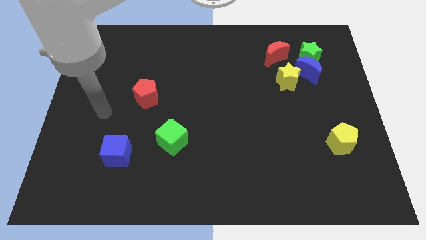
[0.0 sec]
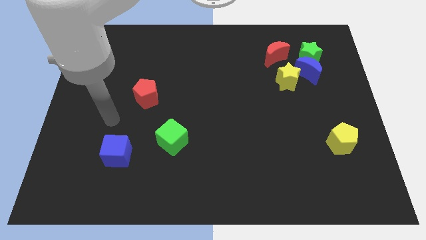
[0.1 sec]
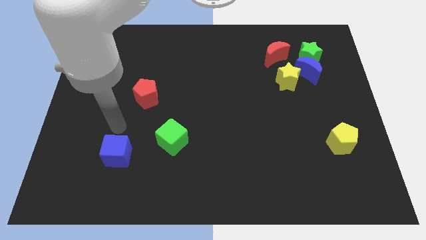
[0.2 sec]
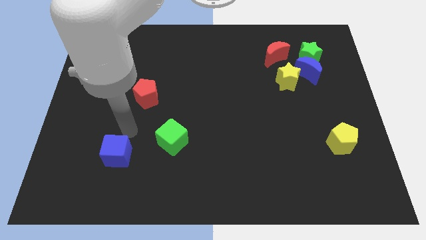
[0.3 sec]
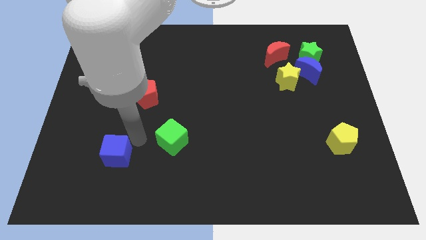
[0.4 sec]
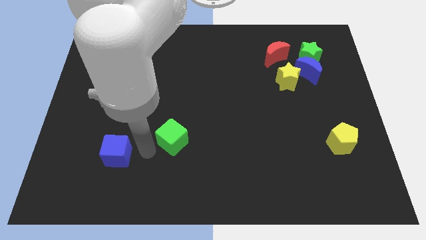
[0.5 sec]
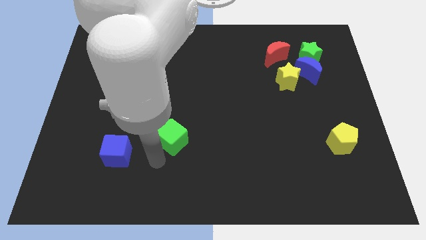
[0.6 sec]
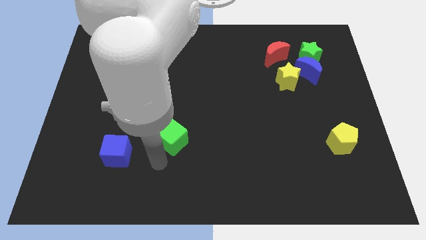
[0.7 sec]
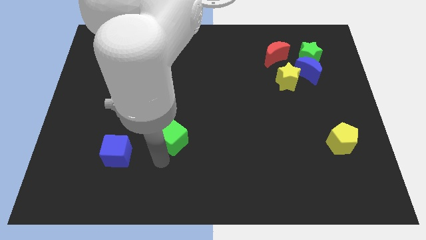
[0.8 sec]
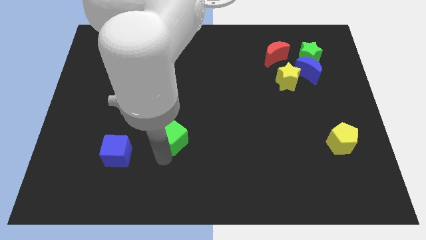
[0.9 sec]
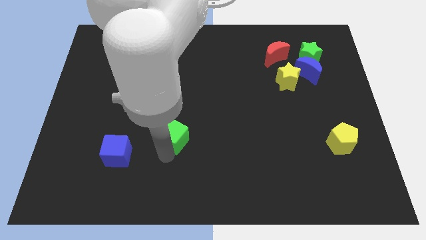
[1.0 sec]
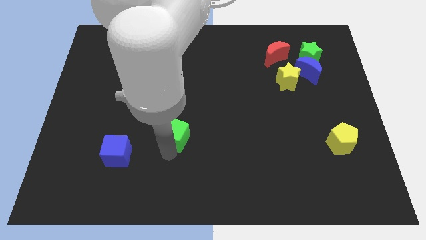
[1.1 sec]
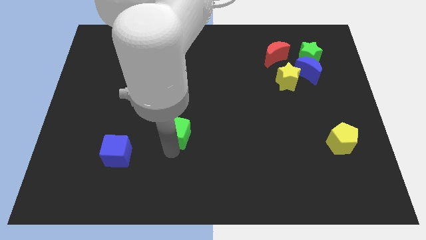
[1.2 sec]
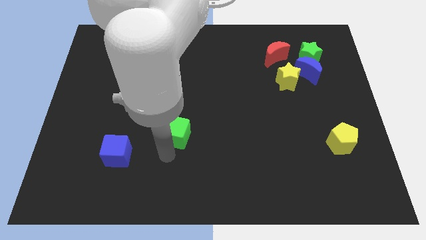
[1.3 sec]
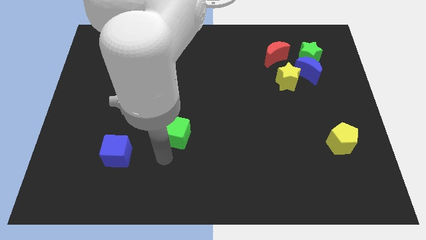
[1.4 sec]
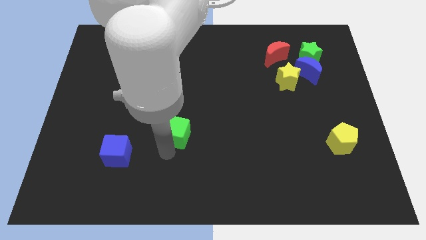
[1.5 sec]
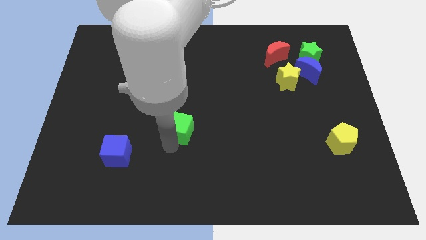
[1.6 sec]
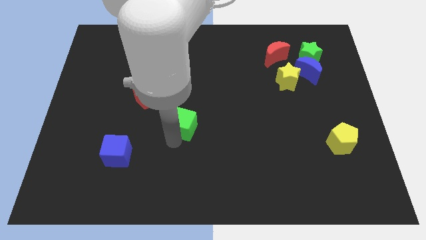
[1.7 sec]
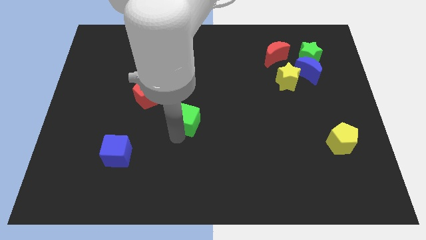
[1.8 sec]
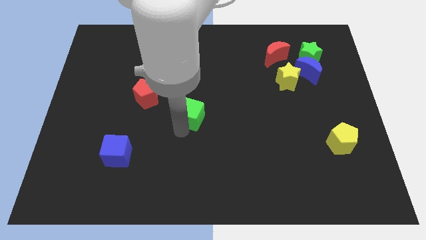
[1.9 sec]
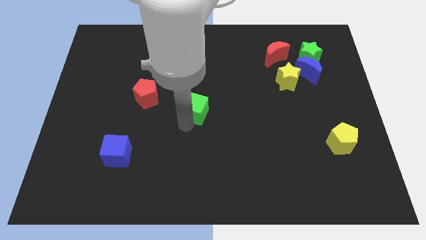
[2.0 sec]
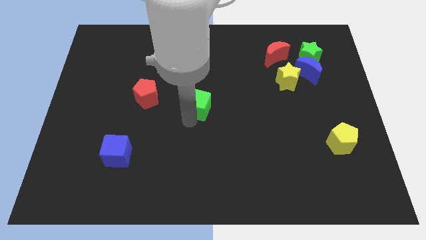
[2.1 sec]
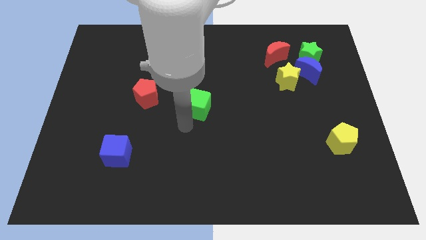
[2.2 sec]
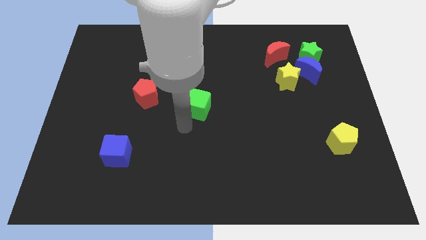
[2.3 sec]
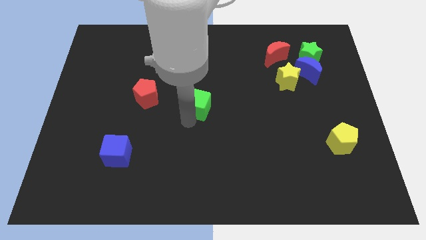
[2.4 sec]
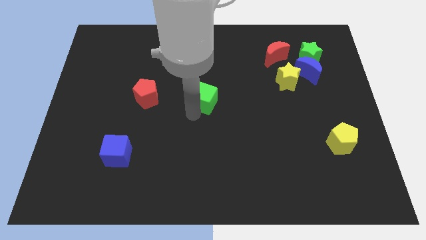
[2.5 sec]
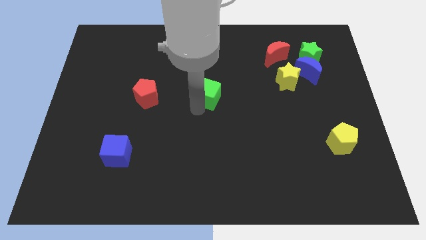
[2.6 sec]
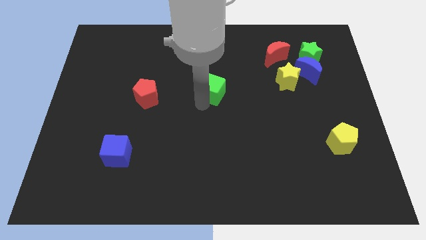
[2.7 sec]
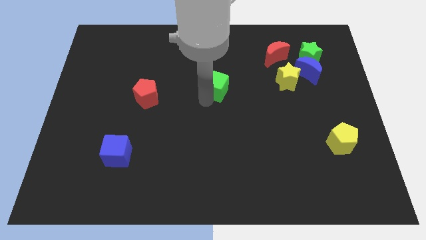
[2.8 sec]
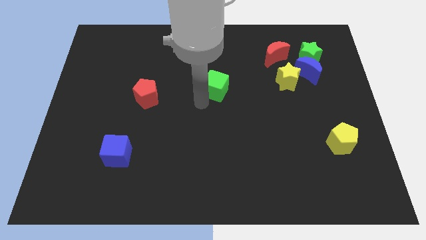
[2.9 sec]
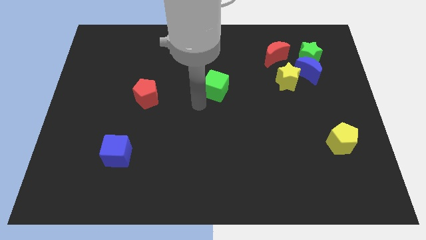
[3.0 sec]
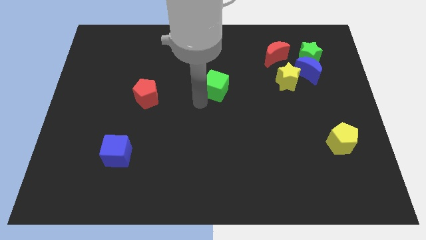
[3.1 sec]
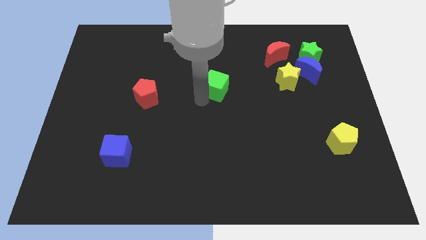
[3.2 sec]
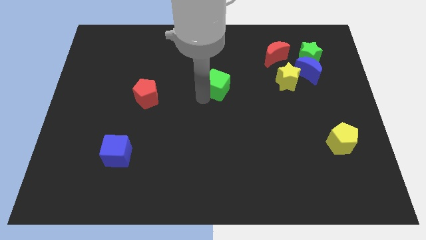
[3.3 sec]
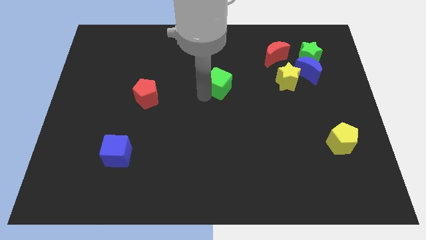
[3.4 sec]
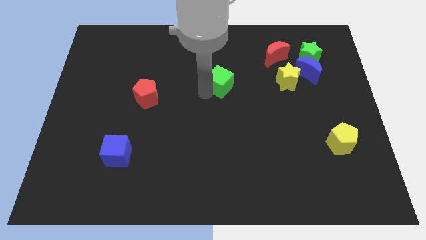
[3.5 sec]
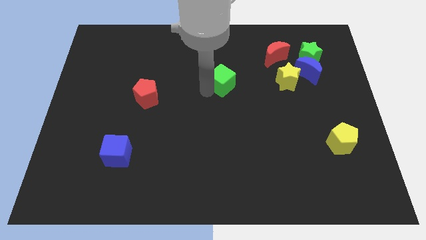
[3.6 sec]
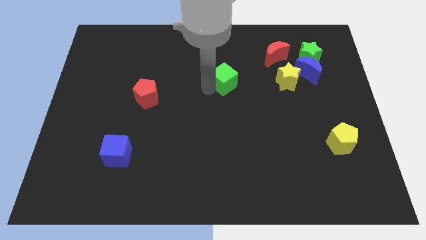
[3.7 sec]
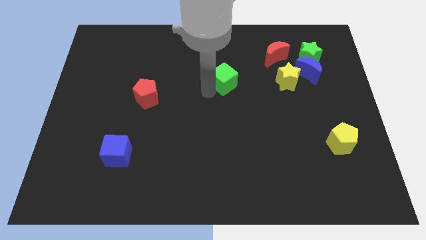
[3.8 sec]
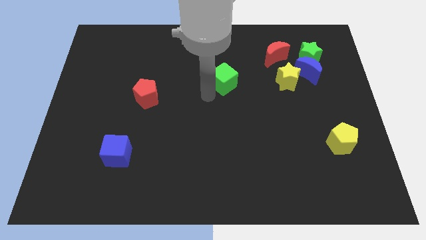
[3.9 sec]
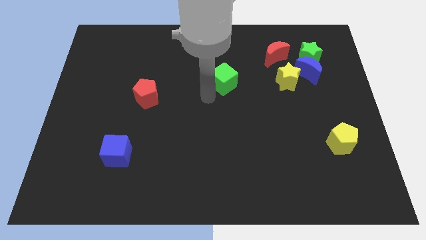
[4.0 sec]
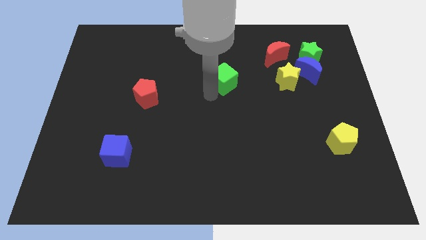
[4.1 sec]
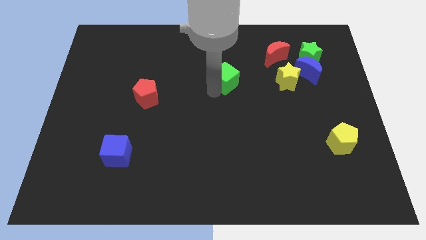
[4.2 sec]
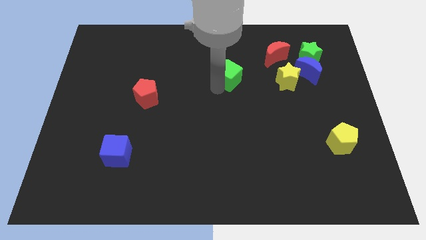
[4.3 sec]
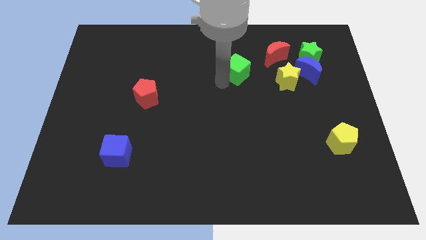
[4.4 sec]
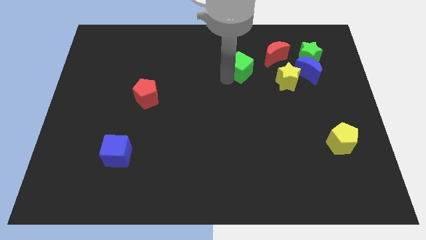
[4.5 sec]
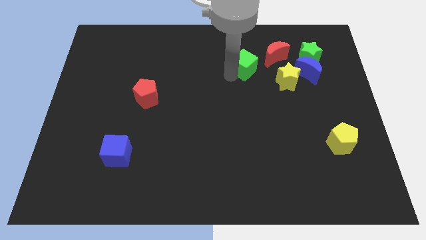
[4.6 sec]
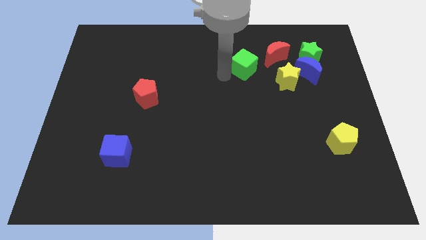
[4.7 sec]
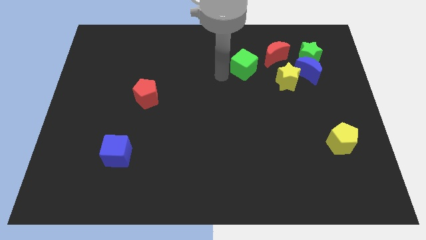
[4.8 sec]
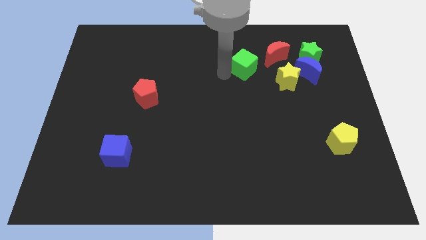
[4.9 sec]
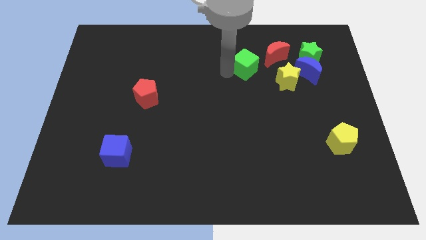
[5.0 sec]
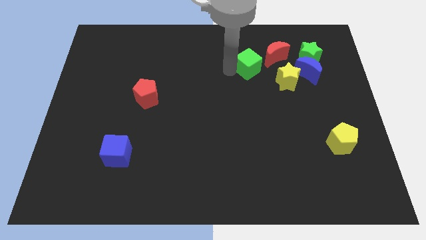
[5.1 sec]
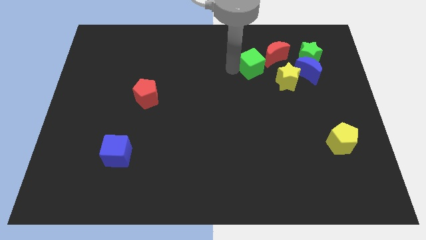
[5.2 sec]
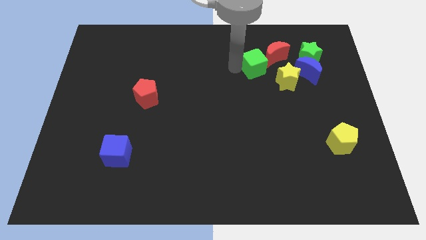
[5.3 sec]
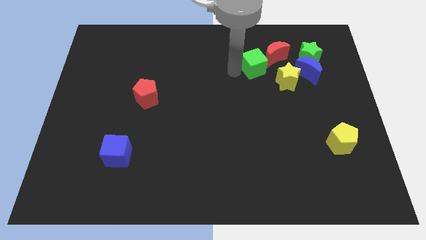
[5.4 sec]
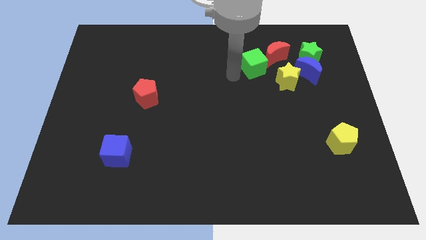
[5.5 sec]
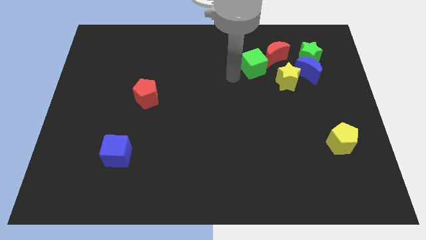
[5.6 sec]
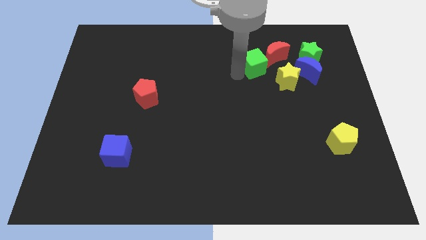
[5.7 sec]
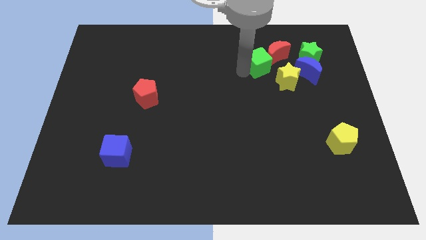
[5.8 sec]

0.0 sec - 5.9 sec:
push the green cube towards the red moon

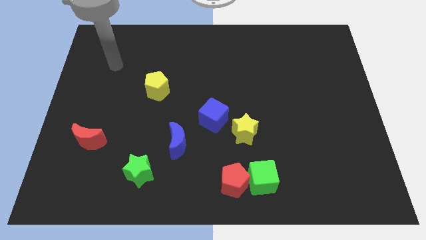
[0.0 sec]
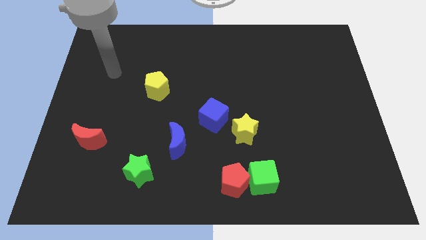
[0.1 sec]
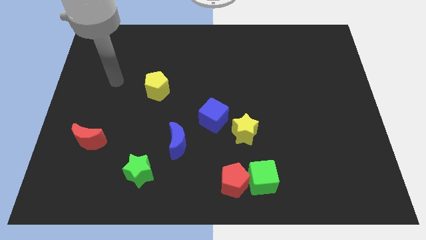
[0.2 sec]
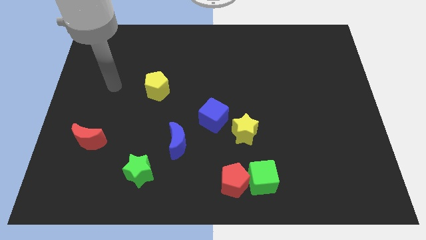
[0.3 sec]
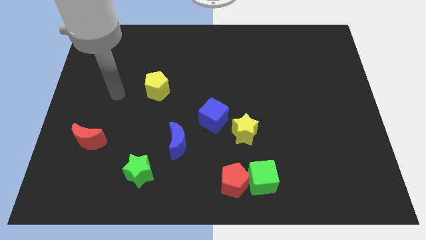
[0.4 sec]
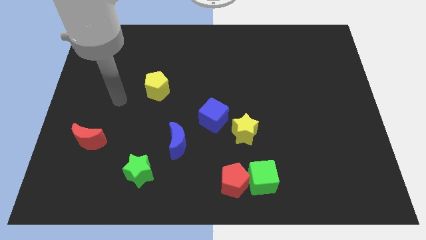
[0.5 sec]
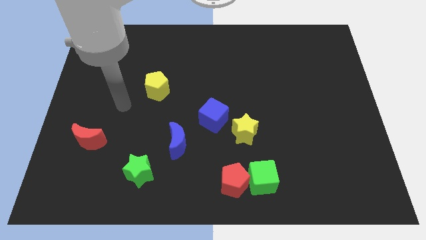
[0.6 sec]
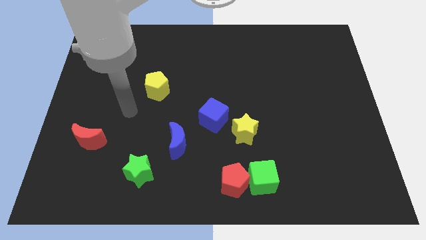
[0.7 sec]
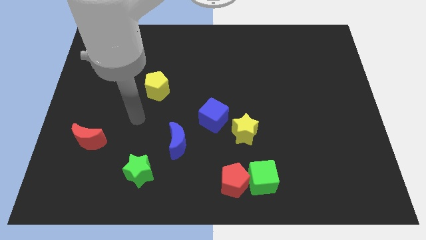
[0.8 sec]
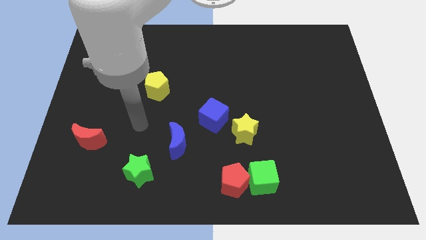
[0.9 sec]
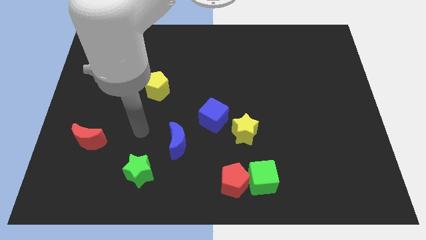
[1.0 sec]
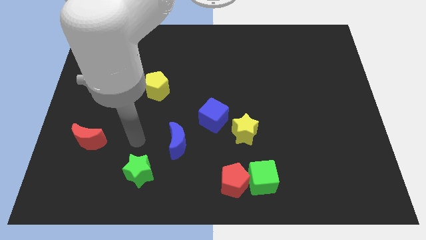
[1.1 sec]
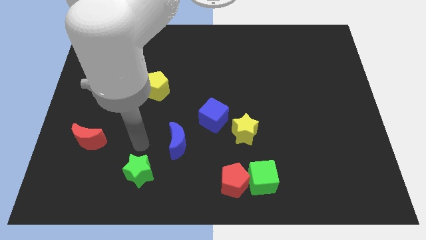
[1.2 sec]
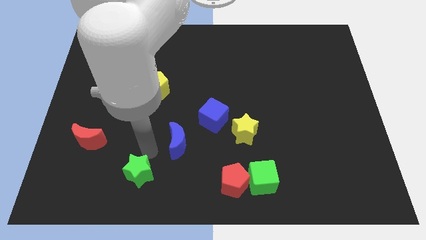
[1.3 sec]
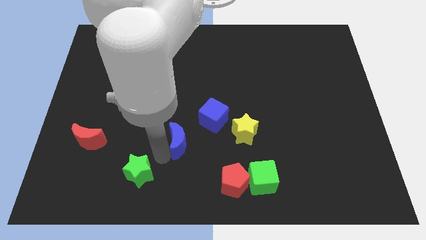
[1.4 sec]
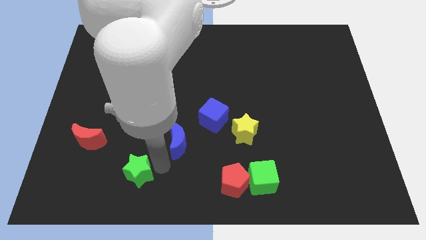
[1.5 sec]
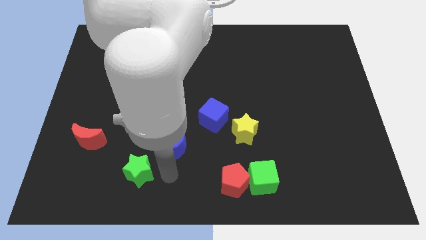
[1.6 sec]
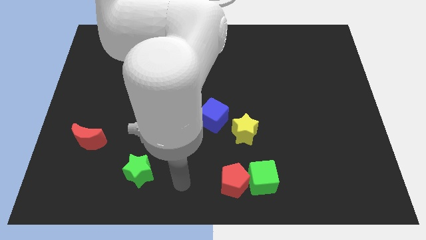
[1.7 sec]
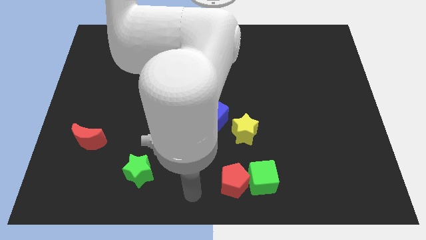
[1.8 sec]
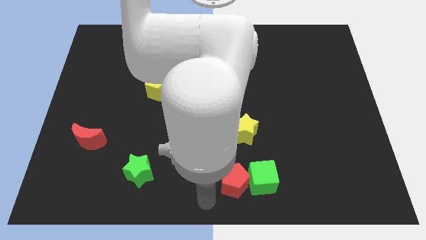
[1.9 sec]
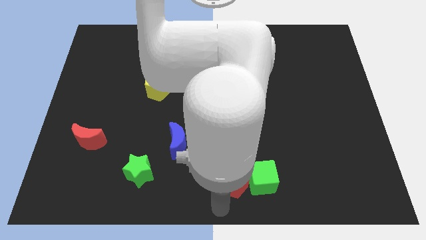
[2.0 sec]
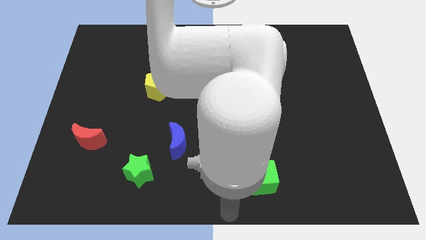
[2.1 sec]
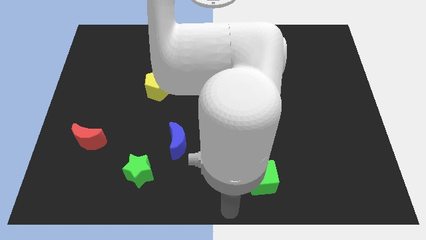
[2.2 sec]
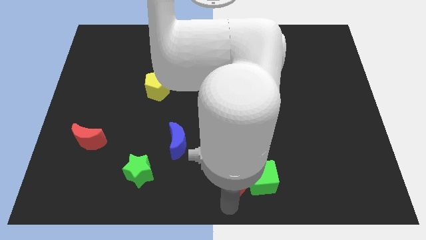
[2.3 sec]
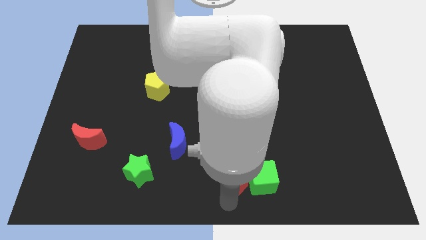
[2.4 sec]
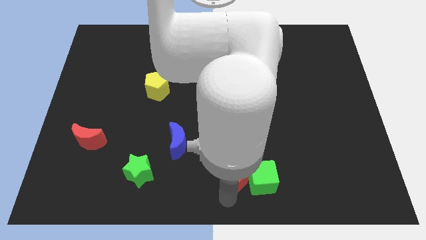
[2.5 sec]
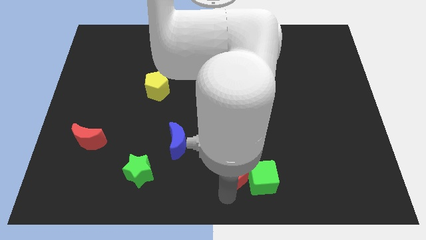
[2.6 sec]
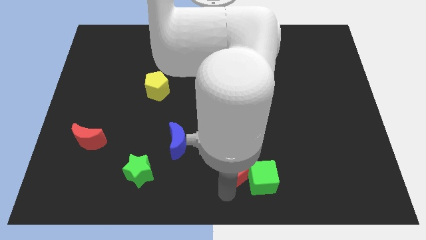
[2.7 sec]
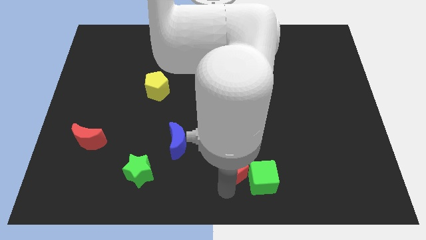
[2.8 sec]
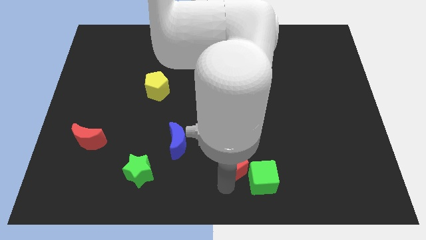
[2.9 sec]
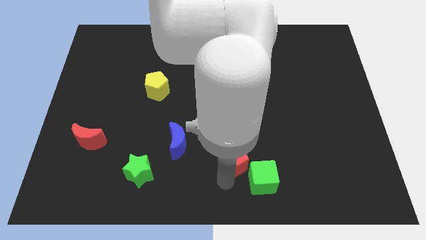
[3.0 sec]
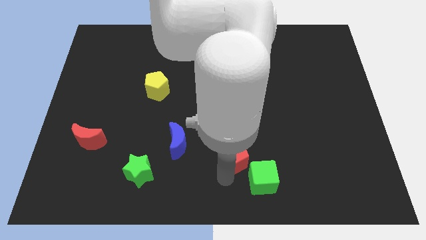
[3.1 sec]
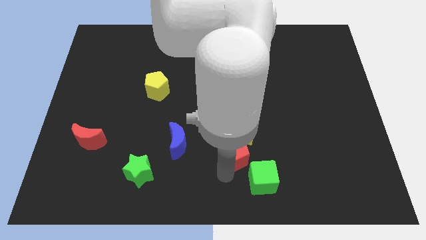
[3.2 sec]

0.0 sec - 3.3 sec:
put the red pentagon to the yellow star
